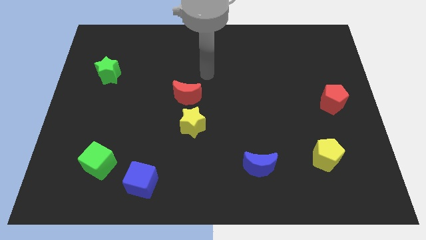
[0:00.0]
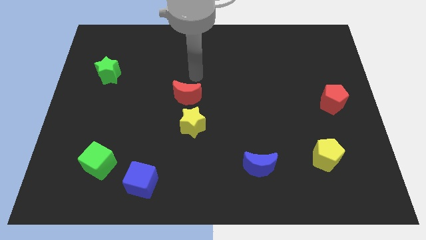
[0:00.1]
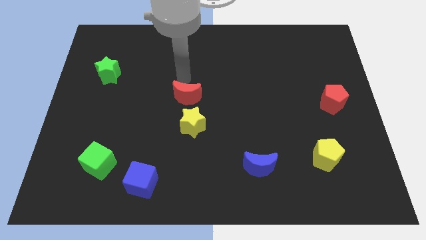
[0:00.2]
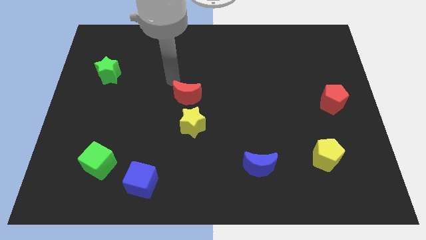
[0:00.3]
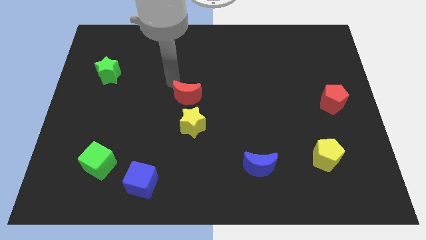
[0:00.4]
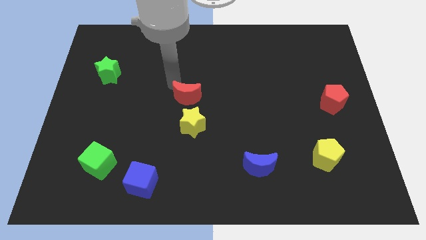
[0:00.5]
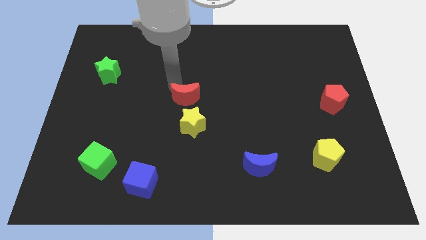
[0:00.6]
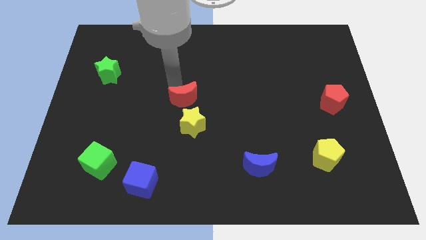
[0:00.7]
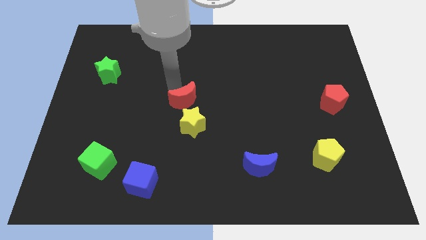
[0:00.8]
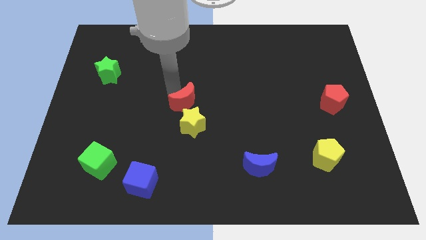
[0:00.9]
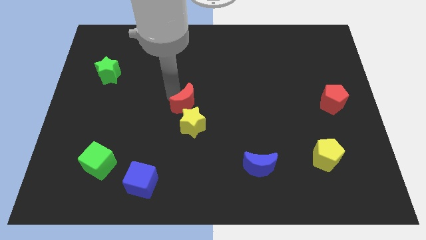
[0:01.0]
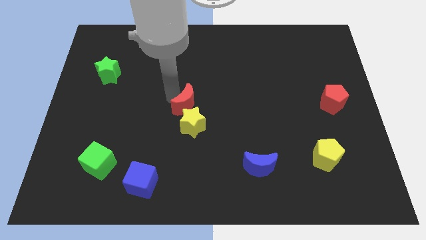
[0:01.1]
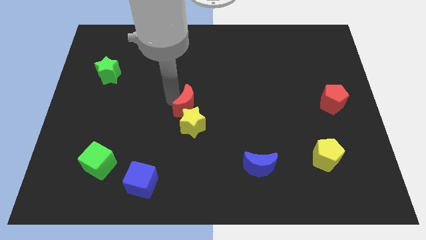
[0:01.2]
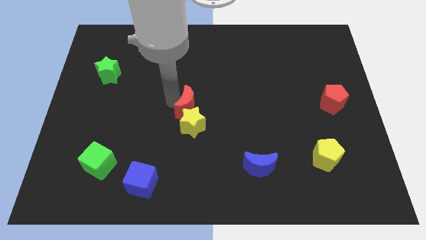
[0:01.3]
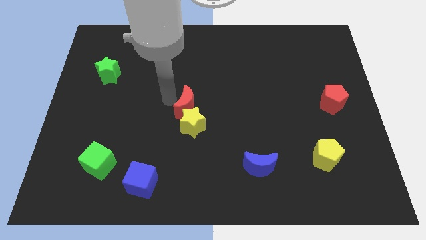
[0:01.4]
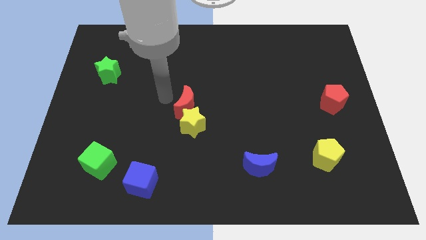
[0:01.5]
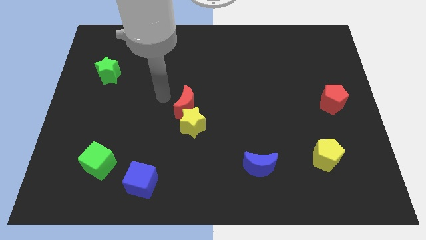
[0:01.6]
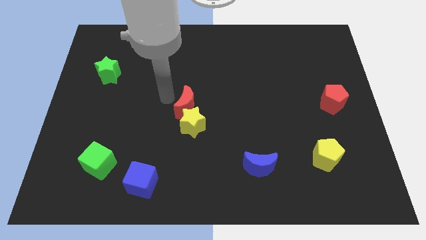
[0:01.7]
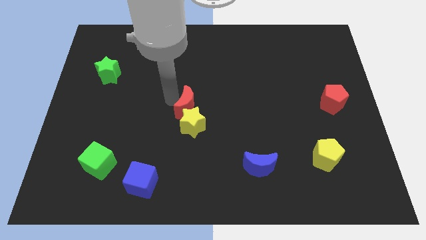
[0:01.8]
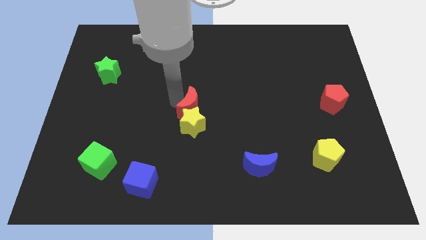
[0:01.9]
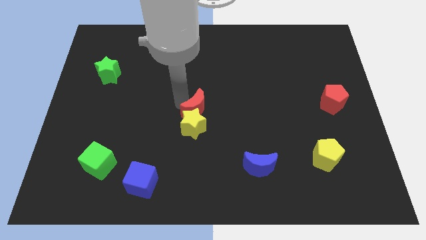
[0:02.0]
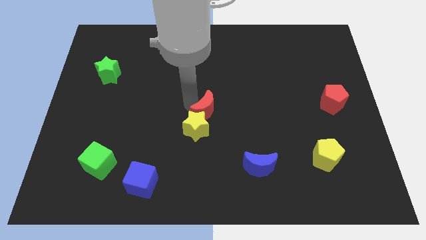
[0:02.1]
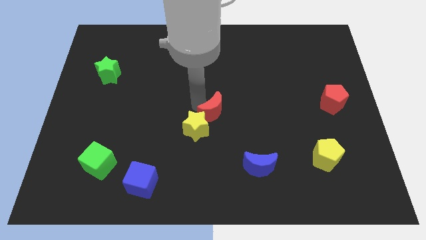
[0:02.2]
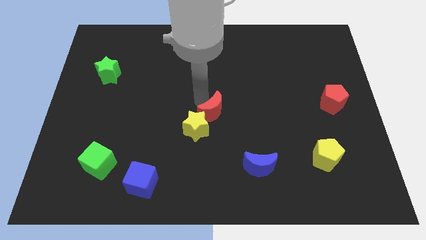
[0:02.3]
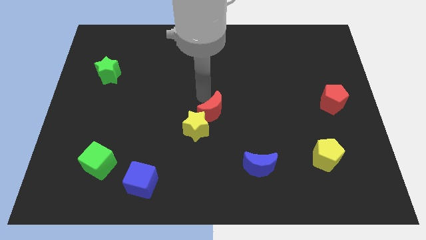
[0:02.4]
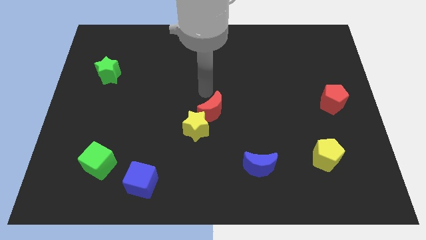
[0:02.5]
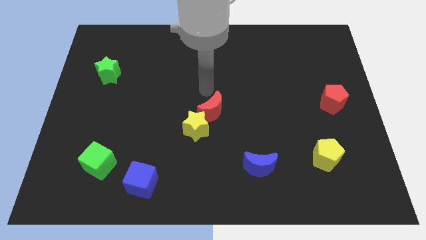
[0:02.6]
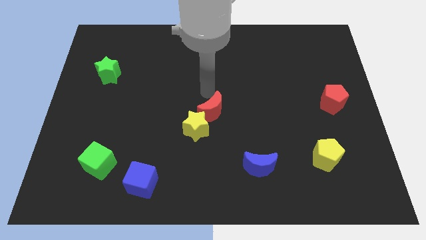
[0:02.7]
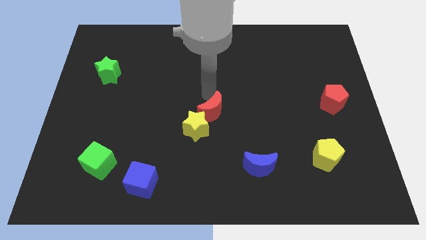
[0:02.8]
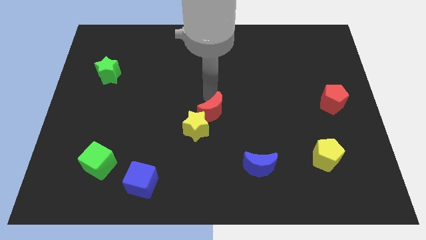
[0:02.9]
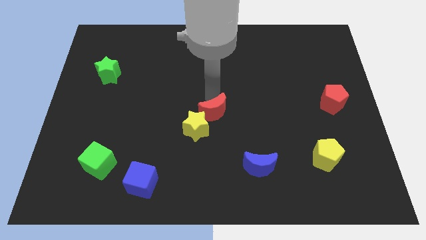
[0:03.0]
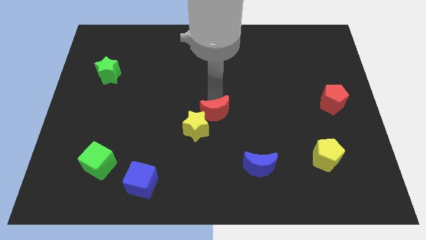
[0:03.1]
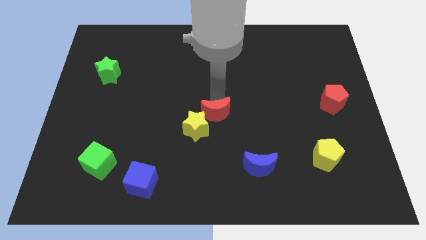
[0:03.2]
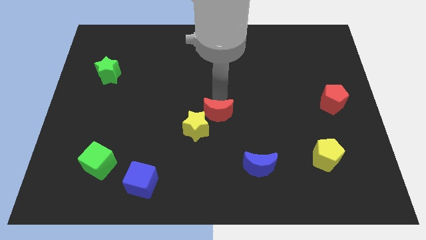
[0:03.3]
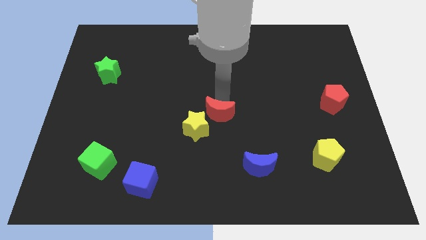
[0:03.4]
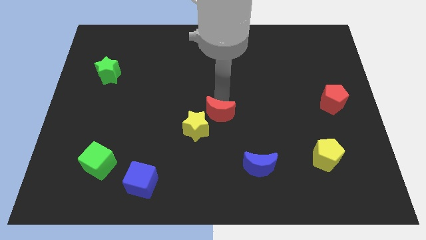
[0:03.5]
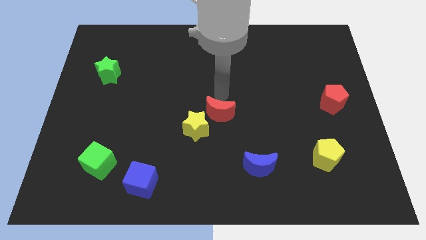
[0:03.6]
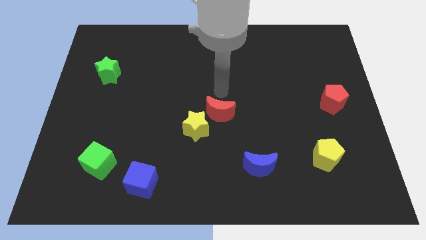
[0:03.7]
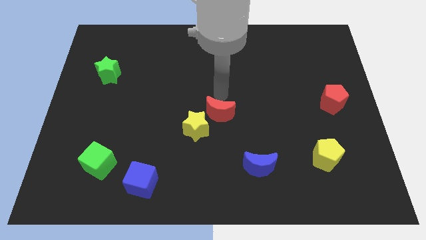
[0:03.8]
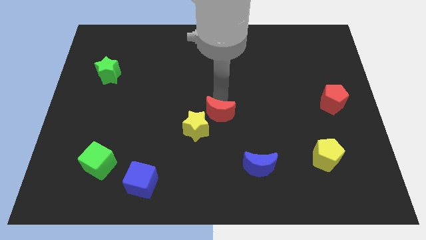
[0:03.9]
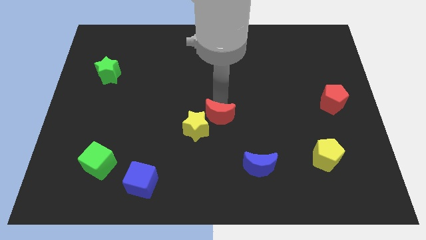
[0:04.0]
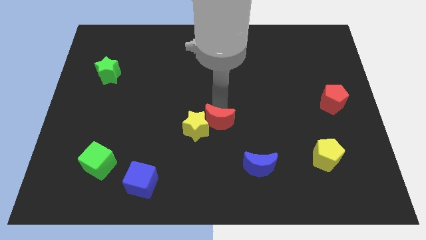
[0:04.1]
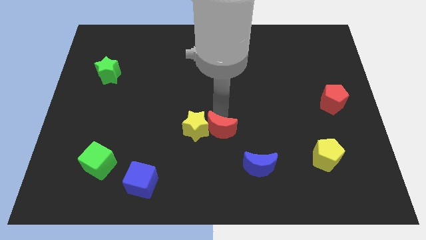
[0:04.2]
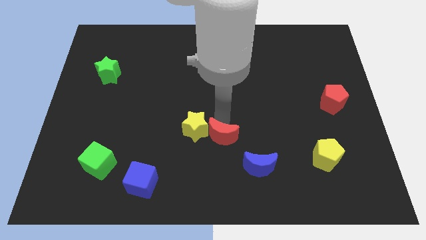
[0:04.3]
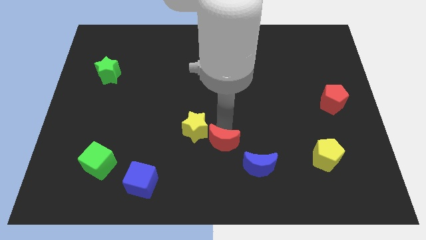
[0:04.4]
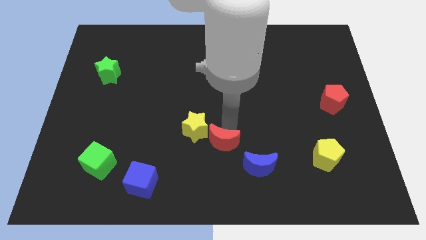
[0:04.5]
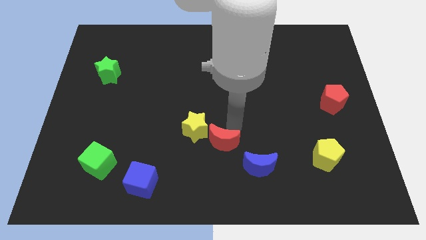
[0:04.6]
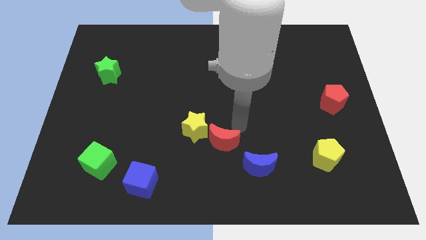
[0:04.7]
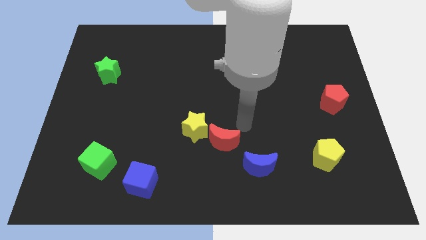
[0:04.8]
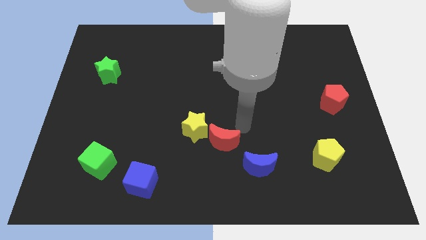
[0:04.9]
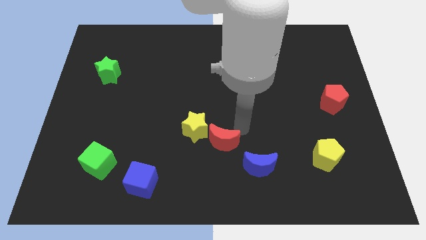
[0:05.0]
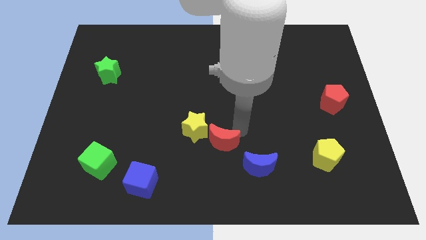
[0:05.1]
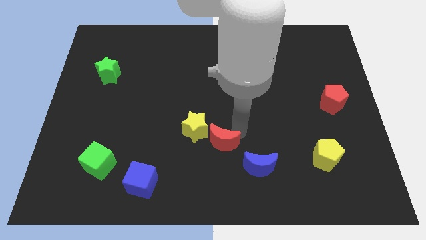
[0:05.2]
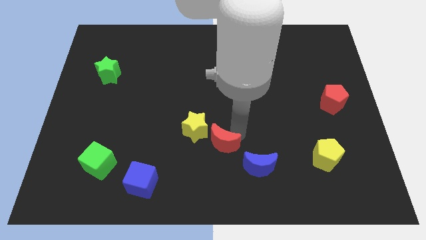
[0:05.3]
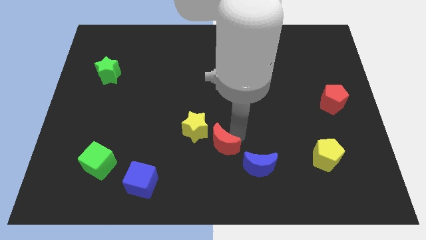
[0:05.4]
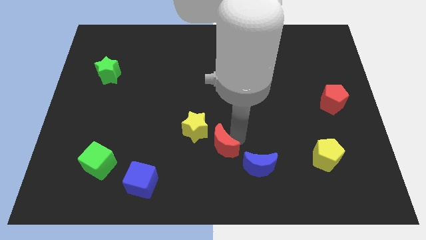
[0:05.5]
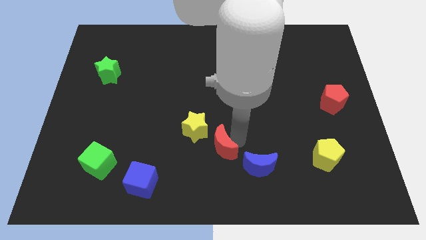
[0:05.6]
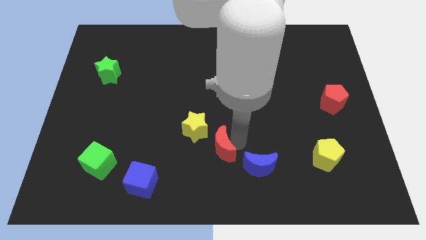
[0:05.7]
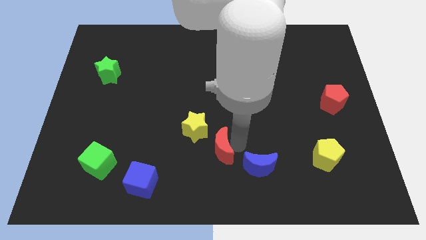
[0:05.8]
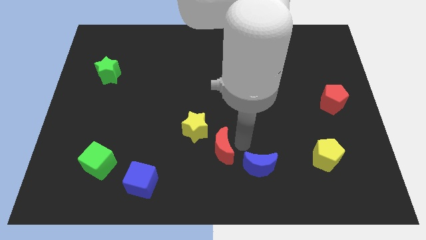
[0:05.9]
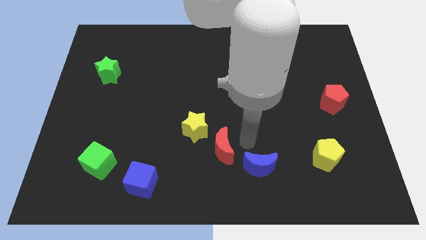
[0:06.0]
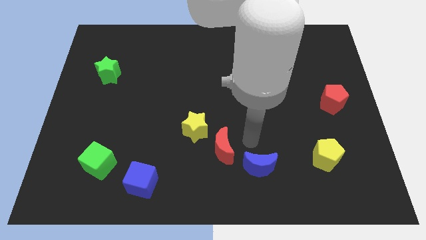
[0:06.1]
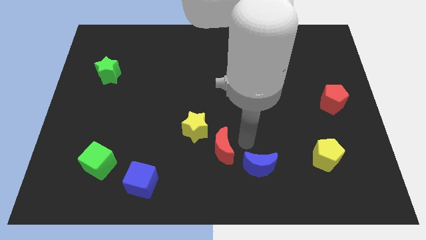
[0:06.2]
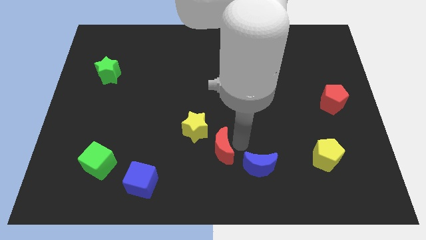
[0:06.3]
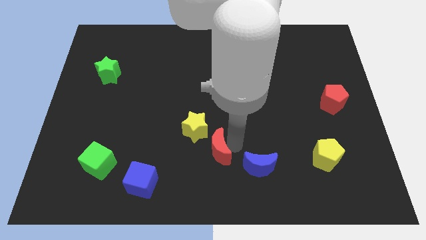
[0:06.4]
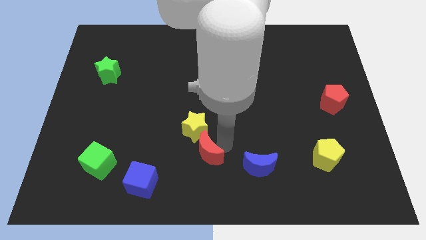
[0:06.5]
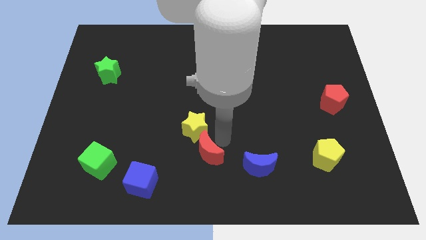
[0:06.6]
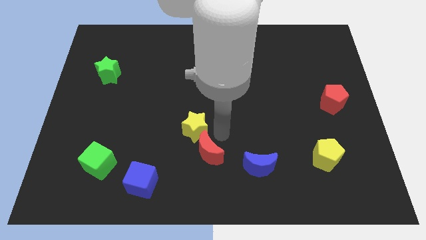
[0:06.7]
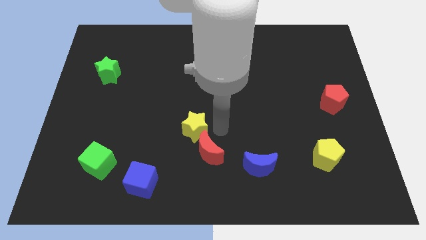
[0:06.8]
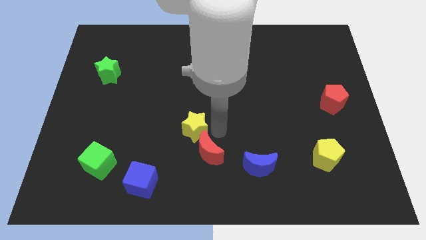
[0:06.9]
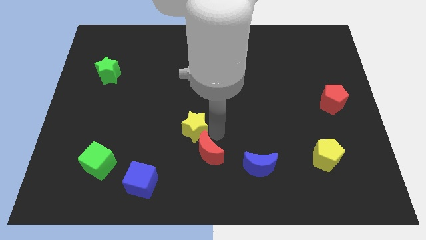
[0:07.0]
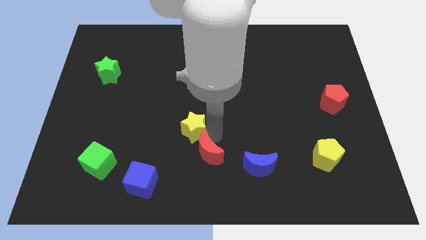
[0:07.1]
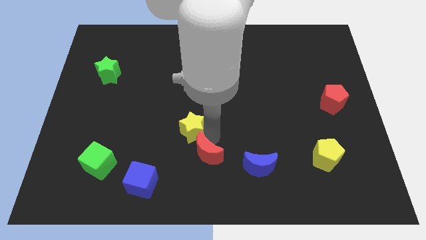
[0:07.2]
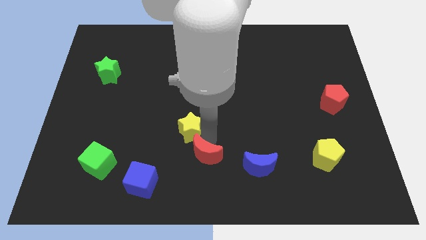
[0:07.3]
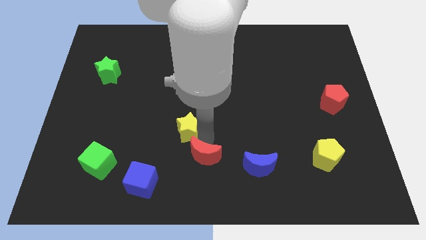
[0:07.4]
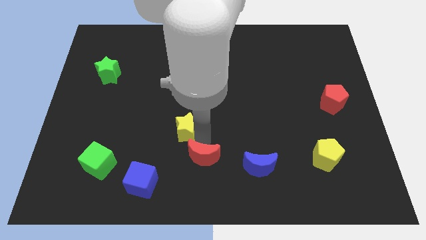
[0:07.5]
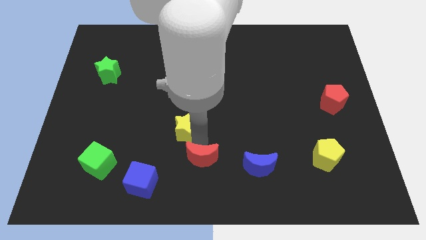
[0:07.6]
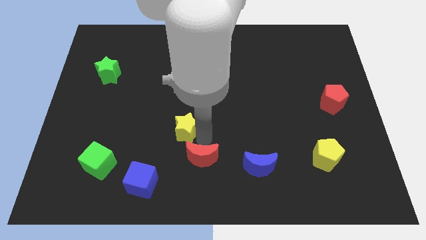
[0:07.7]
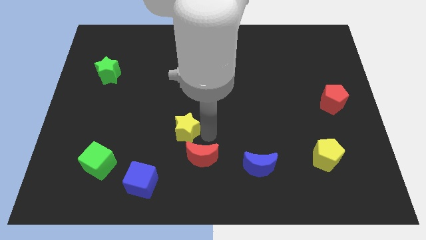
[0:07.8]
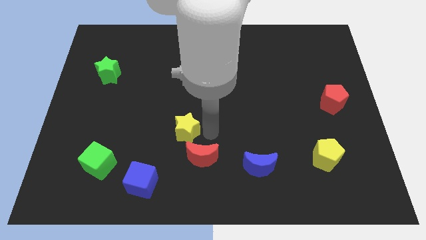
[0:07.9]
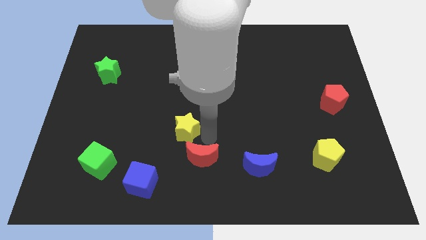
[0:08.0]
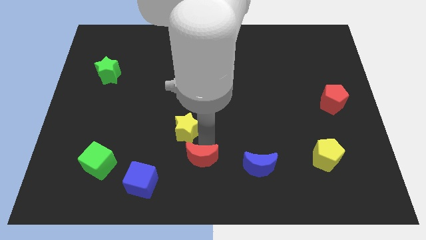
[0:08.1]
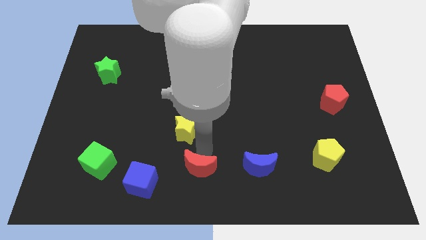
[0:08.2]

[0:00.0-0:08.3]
push the red moon just right of the blue cube
